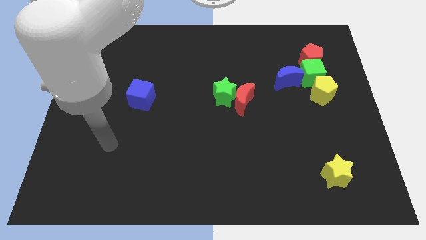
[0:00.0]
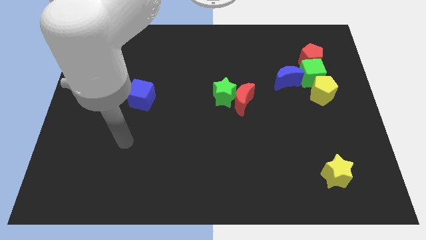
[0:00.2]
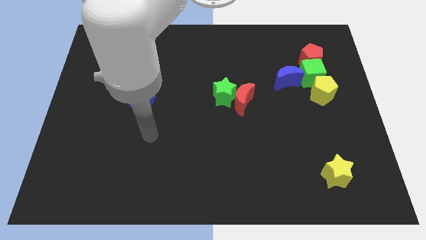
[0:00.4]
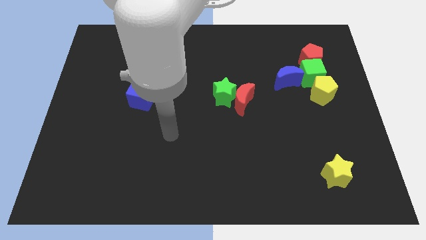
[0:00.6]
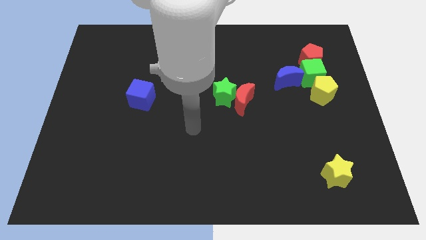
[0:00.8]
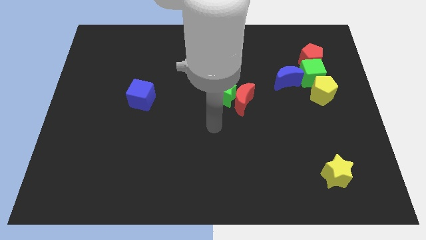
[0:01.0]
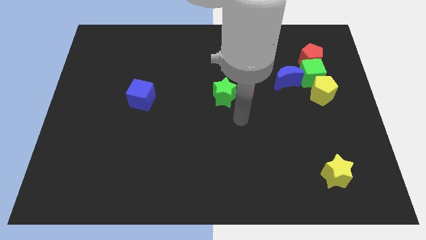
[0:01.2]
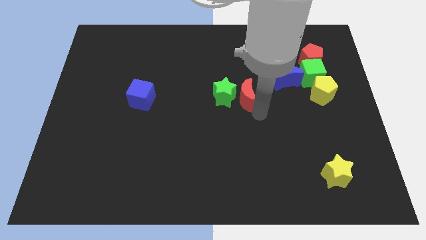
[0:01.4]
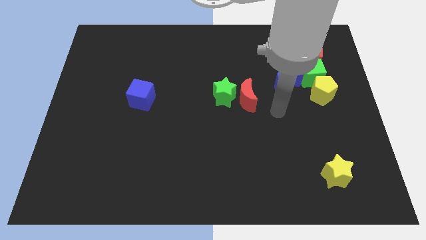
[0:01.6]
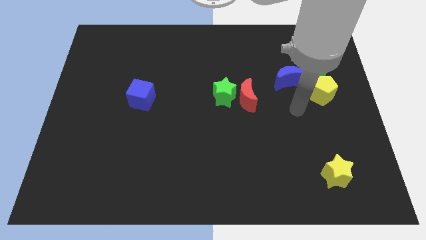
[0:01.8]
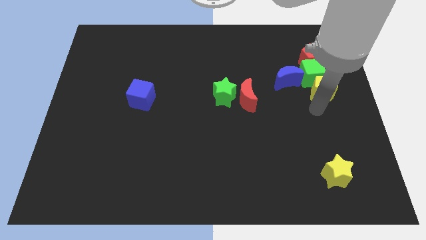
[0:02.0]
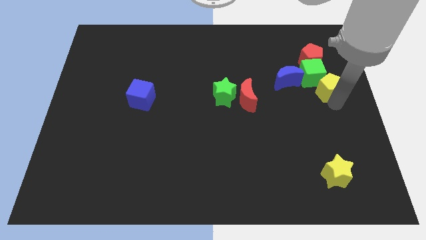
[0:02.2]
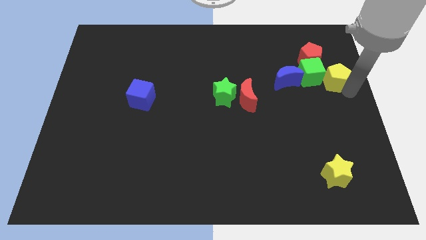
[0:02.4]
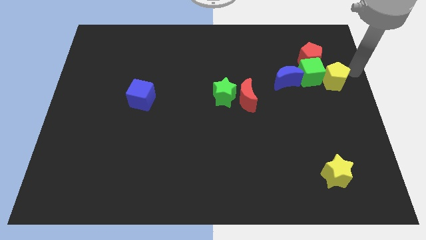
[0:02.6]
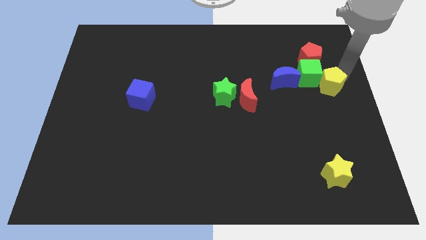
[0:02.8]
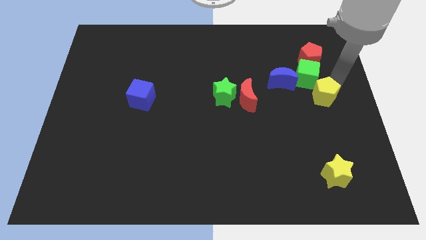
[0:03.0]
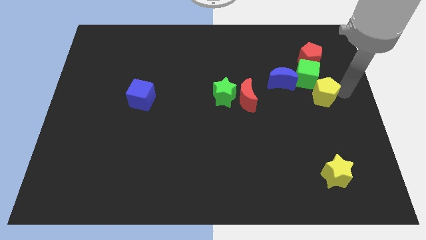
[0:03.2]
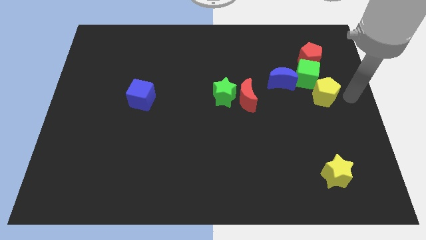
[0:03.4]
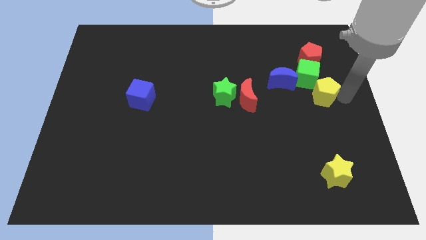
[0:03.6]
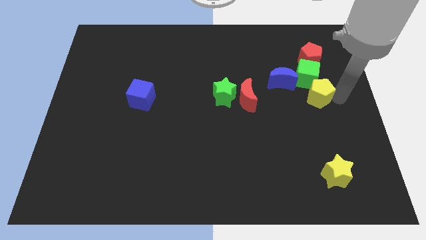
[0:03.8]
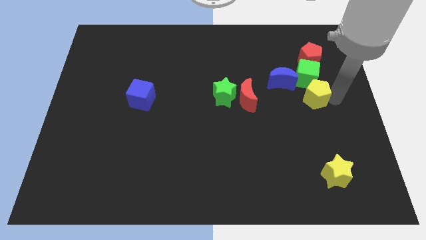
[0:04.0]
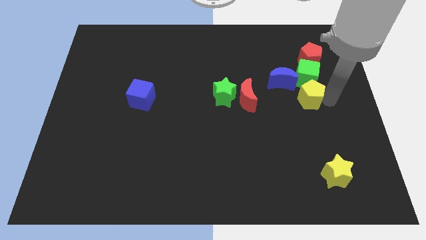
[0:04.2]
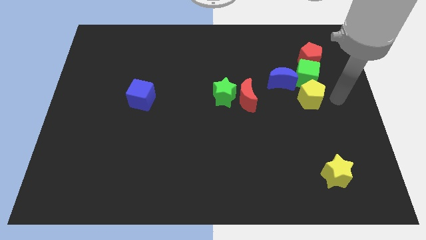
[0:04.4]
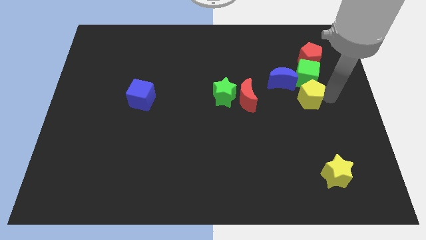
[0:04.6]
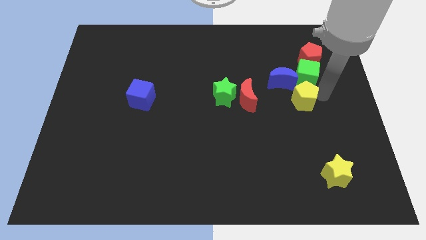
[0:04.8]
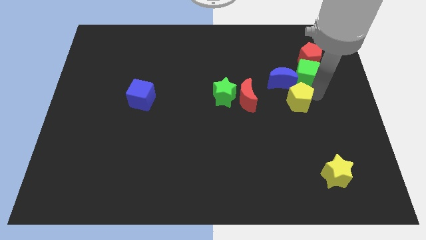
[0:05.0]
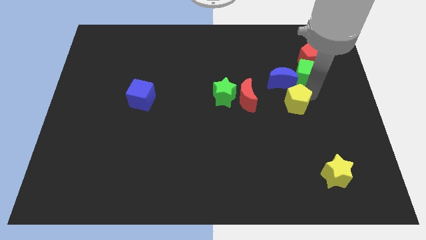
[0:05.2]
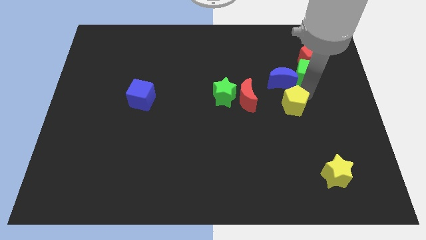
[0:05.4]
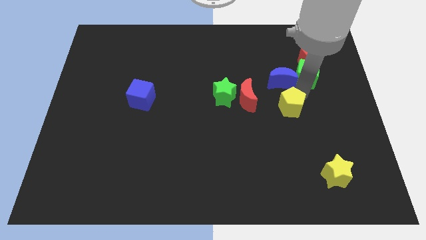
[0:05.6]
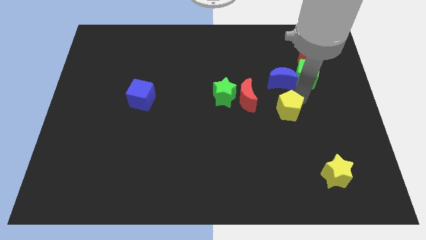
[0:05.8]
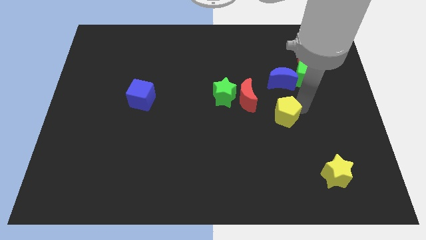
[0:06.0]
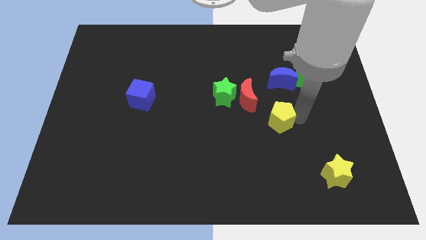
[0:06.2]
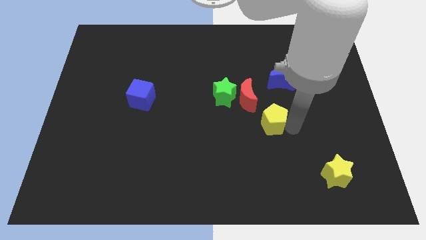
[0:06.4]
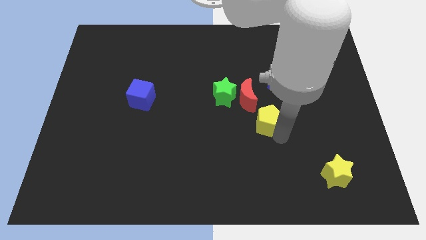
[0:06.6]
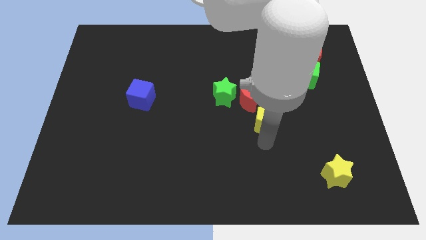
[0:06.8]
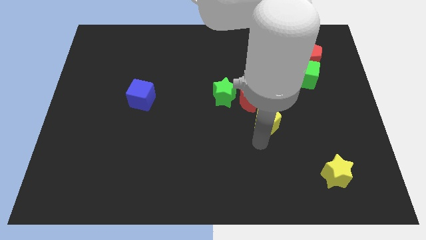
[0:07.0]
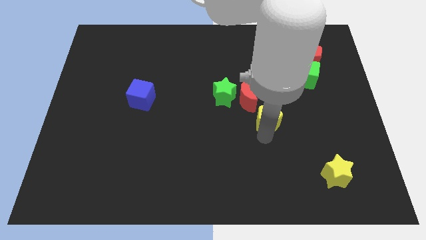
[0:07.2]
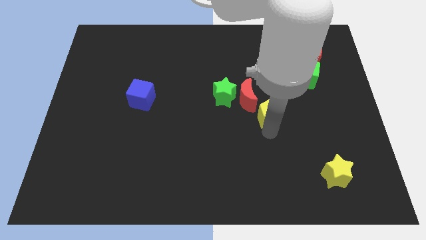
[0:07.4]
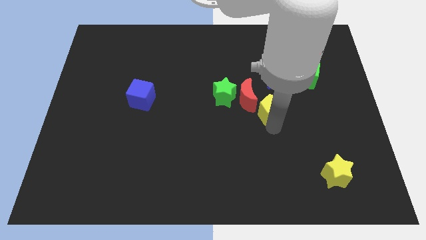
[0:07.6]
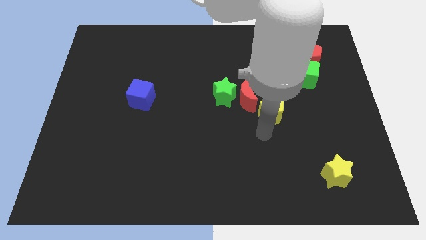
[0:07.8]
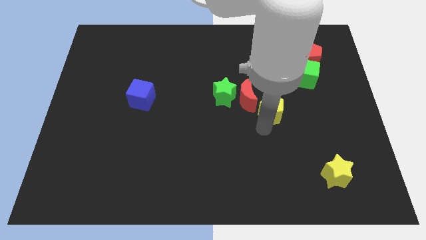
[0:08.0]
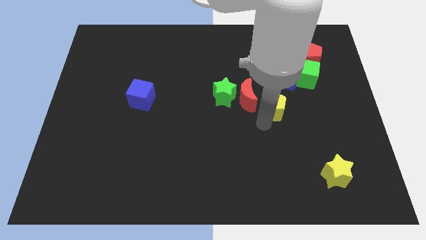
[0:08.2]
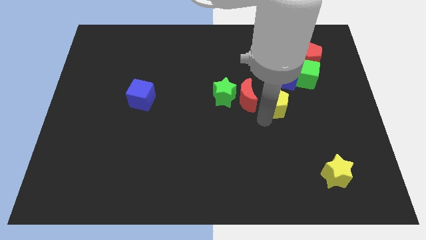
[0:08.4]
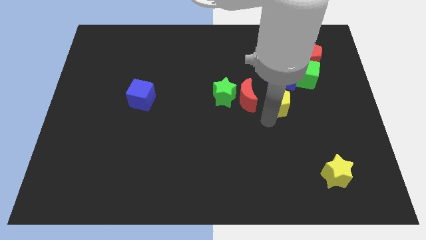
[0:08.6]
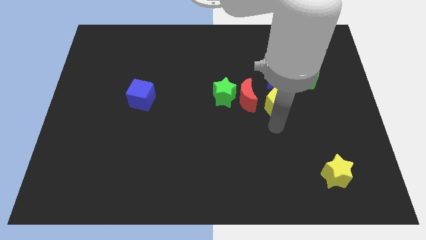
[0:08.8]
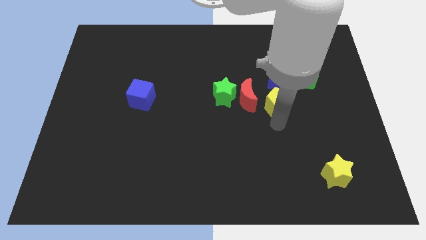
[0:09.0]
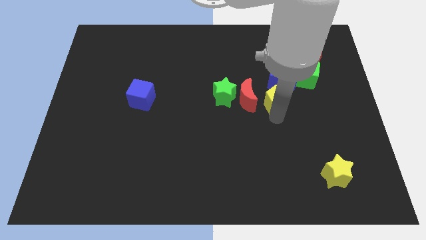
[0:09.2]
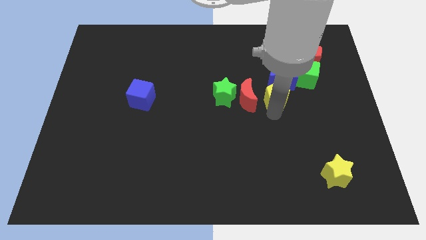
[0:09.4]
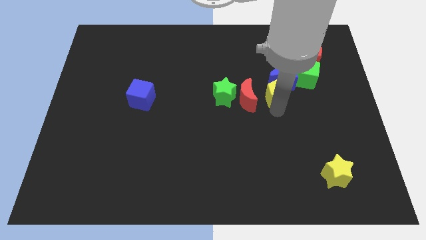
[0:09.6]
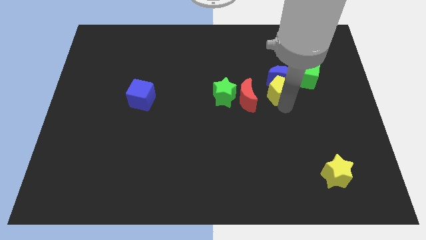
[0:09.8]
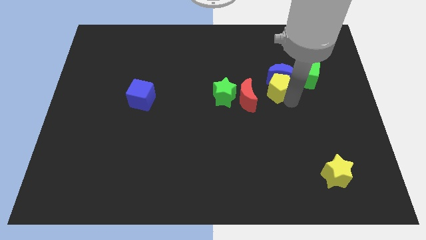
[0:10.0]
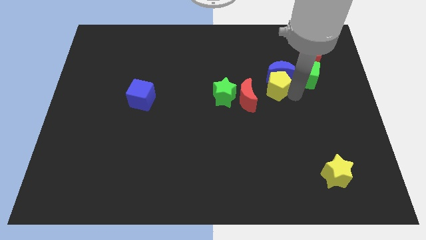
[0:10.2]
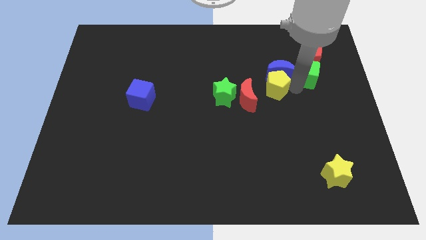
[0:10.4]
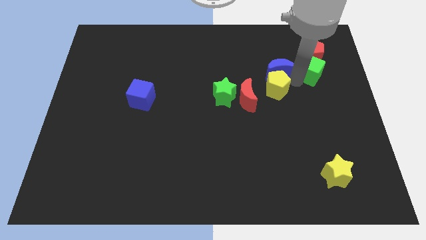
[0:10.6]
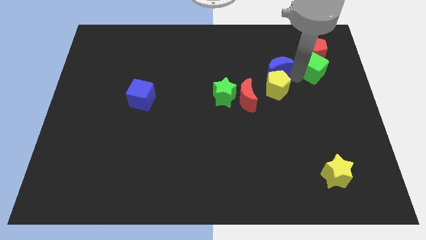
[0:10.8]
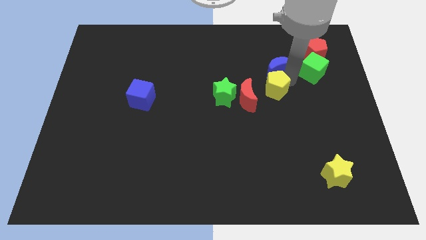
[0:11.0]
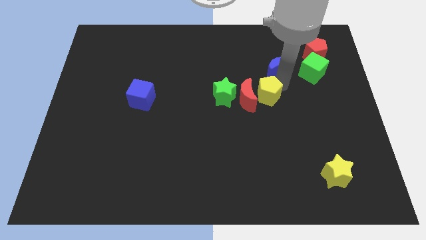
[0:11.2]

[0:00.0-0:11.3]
move the yellow pentagon to the red moon

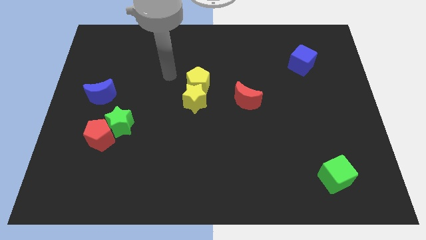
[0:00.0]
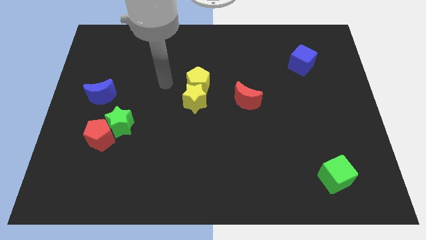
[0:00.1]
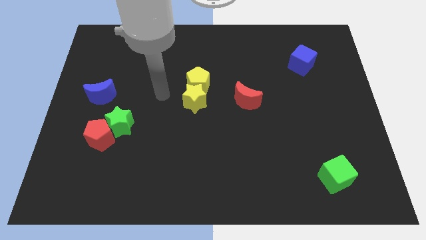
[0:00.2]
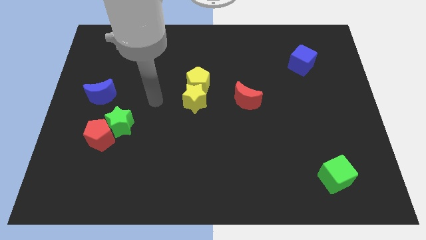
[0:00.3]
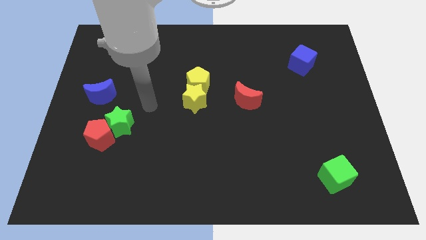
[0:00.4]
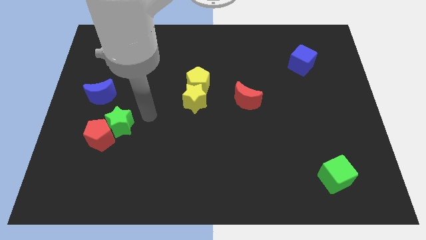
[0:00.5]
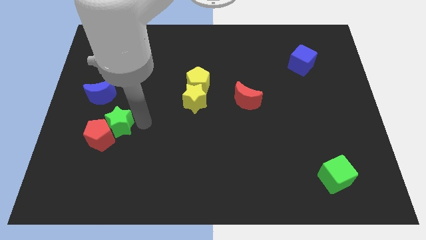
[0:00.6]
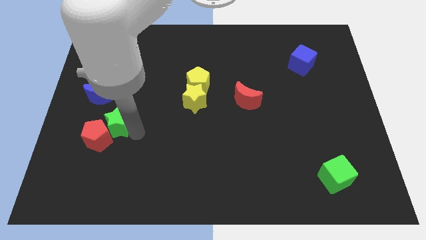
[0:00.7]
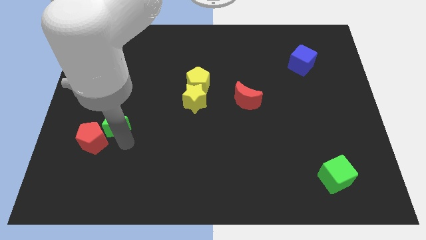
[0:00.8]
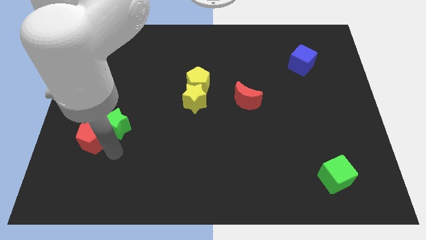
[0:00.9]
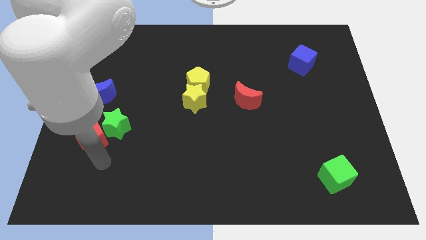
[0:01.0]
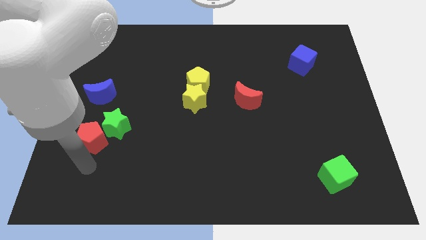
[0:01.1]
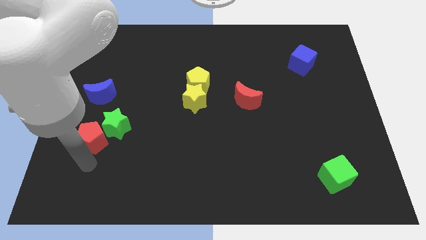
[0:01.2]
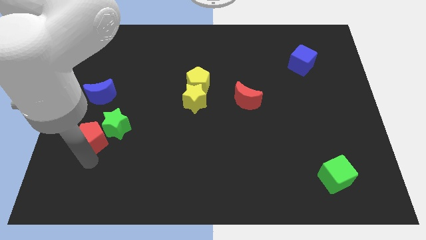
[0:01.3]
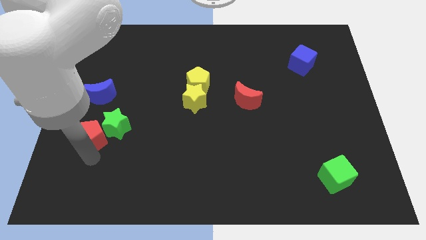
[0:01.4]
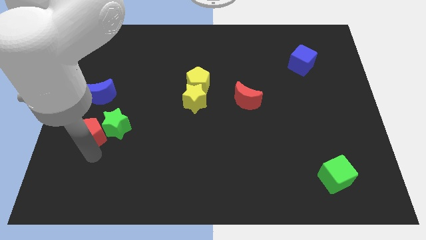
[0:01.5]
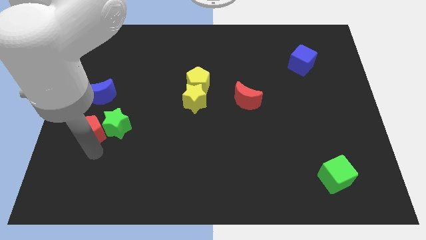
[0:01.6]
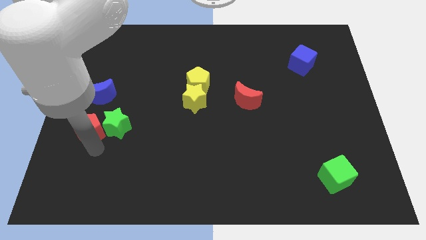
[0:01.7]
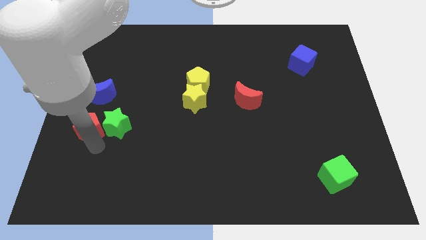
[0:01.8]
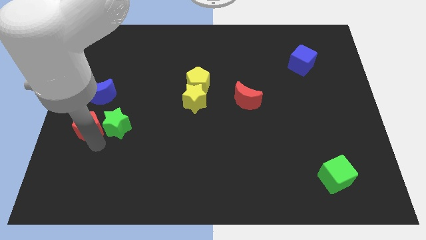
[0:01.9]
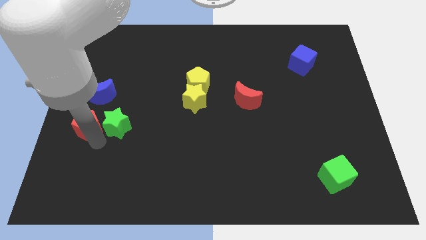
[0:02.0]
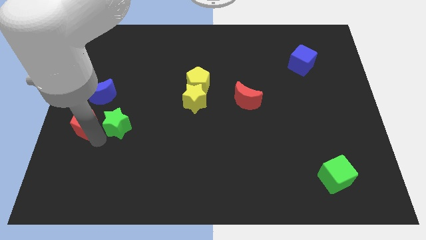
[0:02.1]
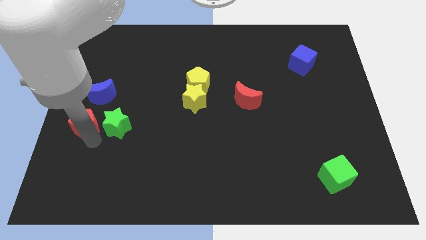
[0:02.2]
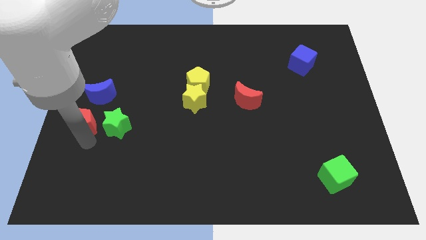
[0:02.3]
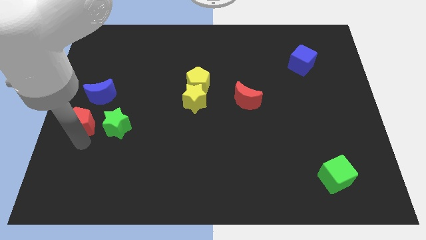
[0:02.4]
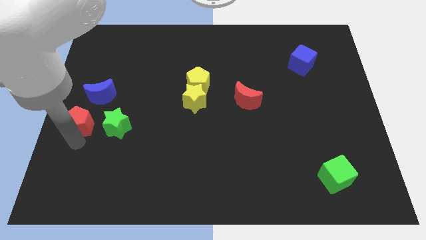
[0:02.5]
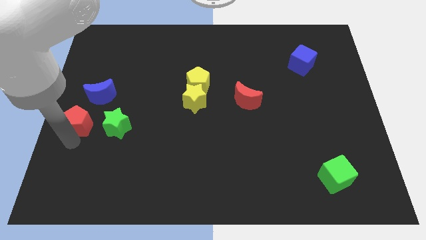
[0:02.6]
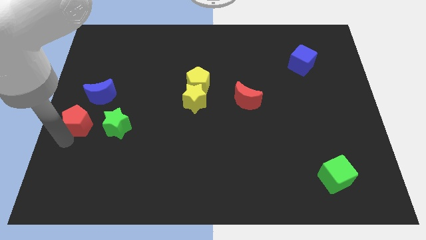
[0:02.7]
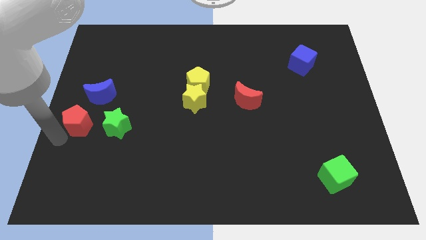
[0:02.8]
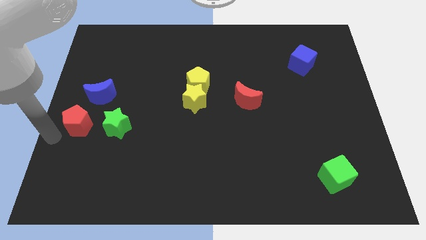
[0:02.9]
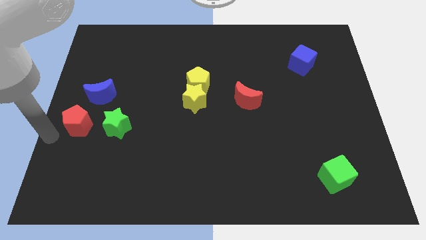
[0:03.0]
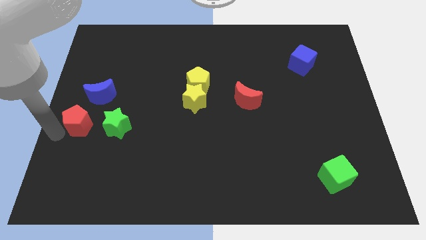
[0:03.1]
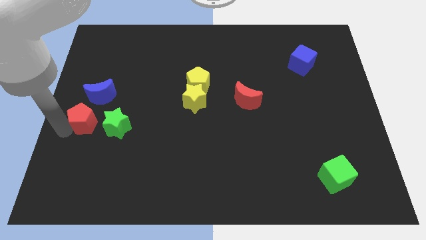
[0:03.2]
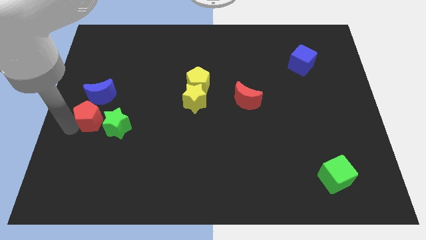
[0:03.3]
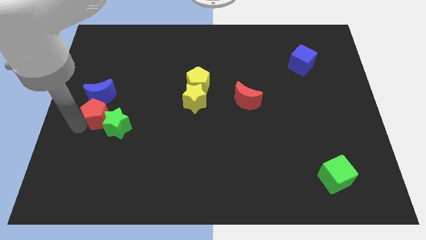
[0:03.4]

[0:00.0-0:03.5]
move the red pentagon to the blue moon
